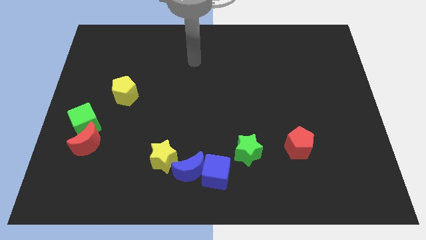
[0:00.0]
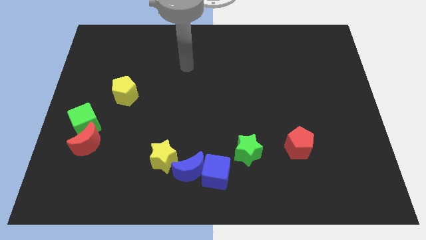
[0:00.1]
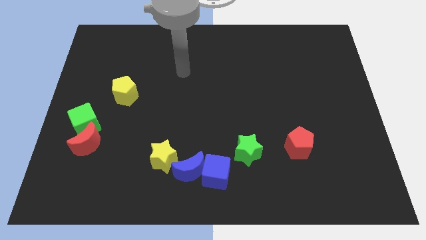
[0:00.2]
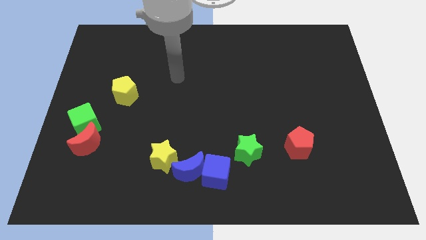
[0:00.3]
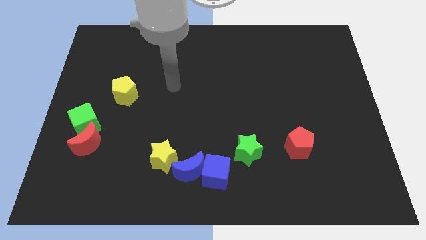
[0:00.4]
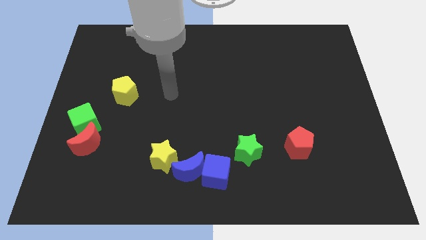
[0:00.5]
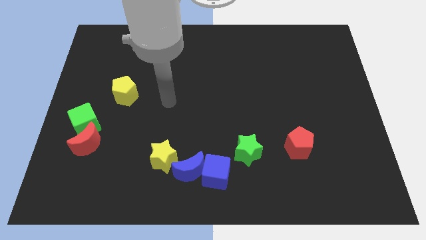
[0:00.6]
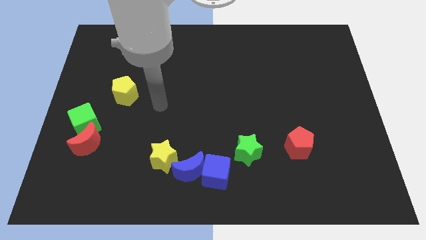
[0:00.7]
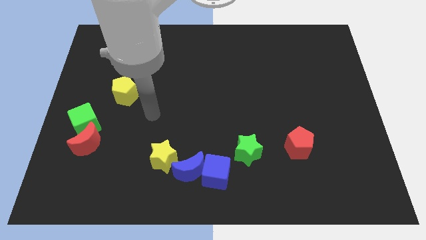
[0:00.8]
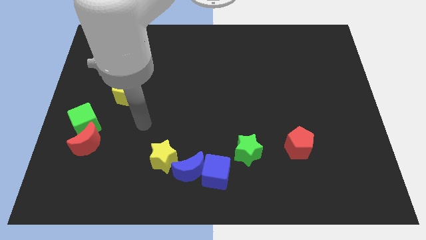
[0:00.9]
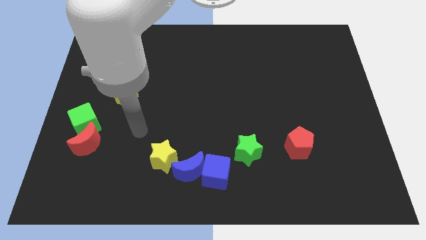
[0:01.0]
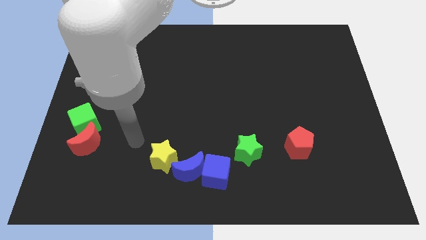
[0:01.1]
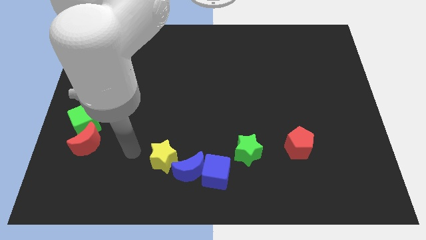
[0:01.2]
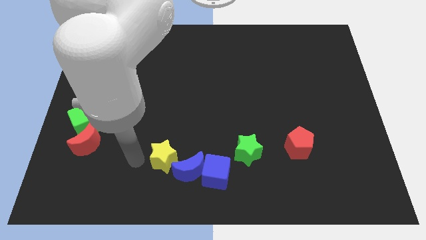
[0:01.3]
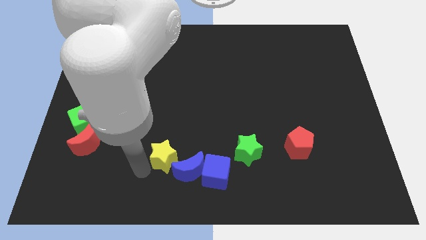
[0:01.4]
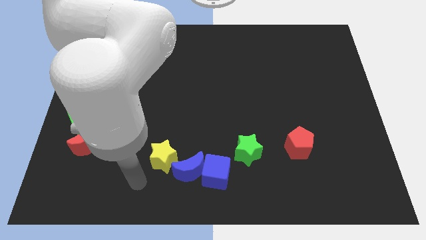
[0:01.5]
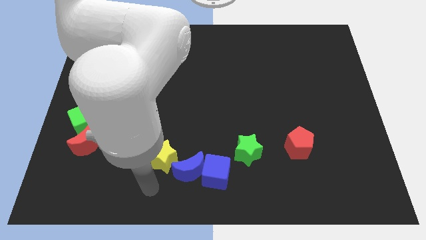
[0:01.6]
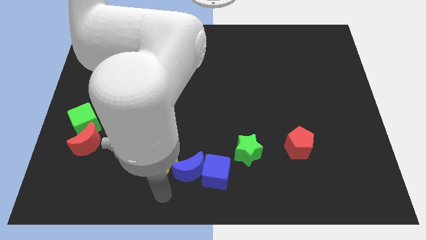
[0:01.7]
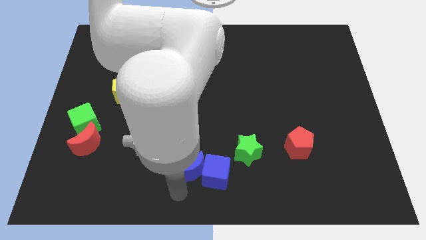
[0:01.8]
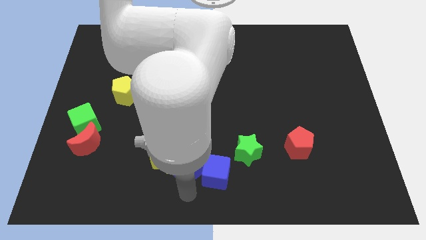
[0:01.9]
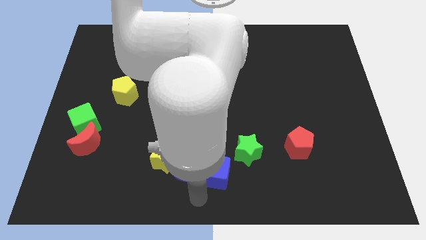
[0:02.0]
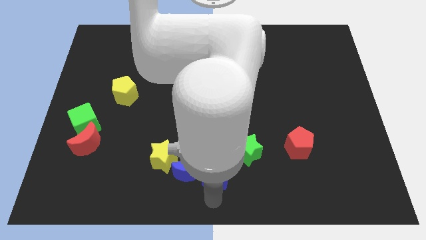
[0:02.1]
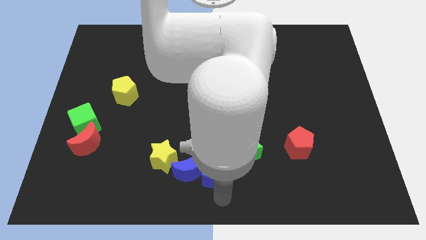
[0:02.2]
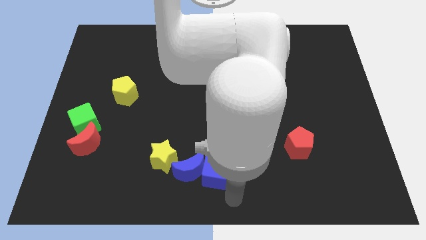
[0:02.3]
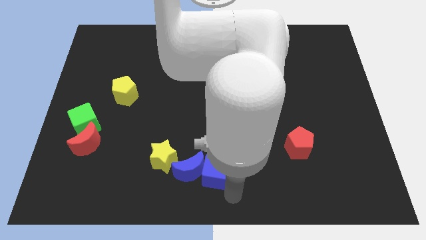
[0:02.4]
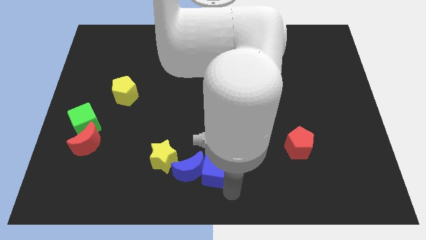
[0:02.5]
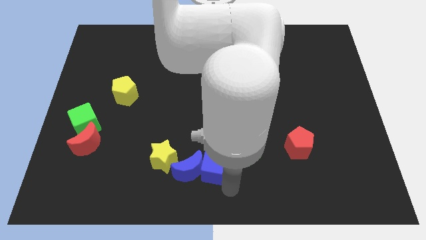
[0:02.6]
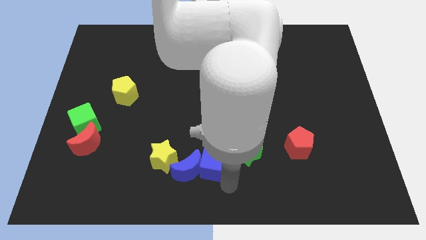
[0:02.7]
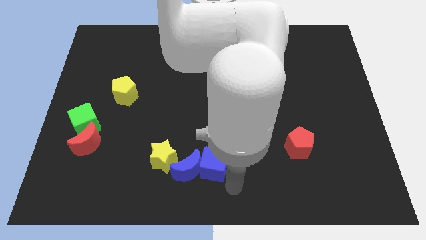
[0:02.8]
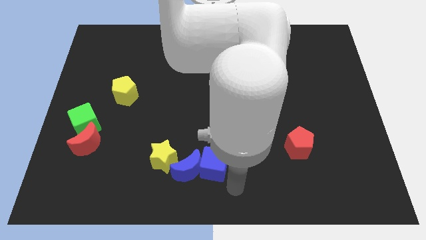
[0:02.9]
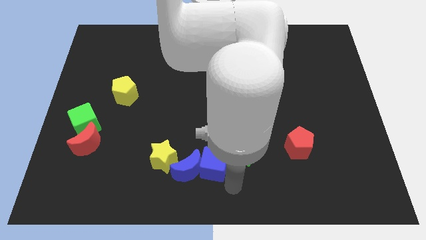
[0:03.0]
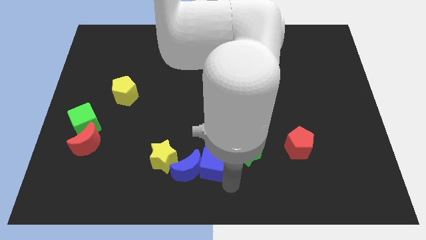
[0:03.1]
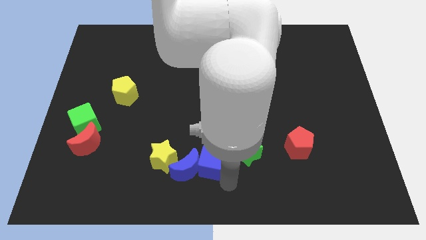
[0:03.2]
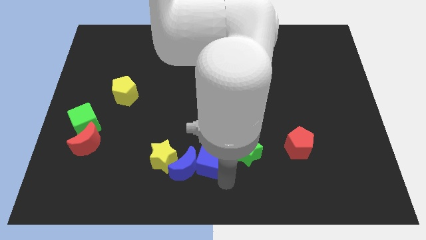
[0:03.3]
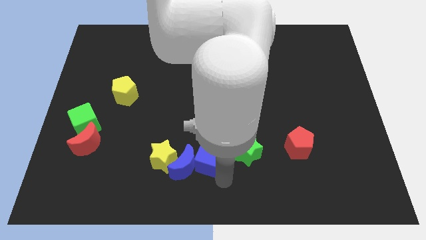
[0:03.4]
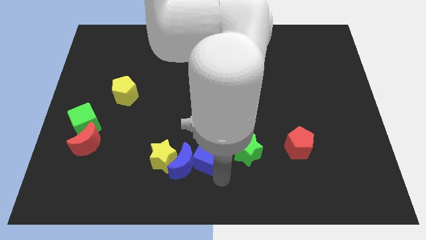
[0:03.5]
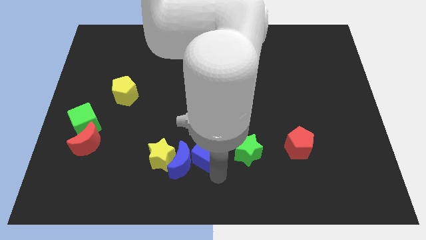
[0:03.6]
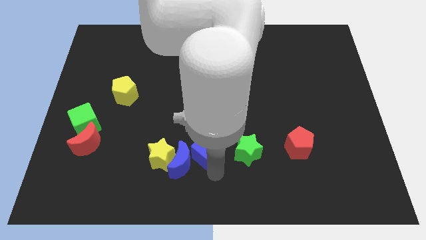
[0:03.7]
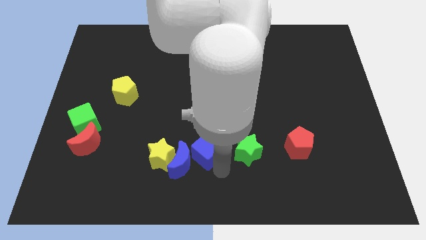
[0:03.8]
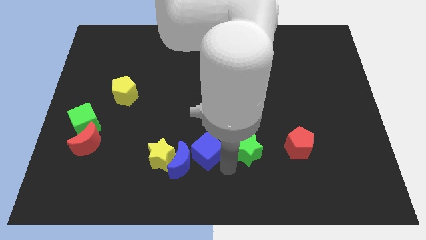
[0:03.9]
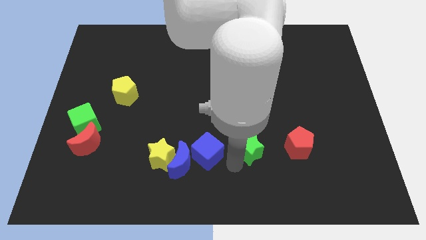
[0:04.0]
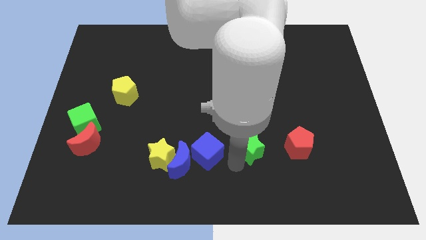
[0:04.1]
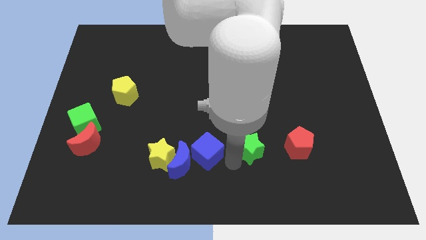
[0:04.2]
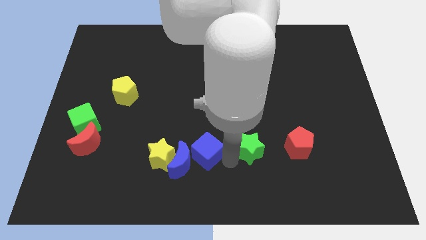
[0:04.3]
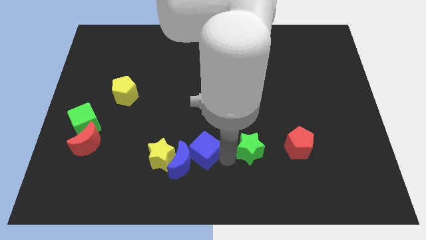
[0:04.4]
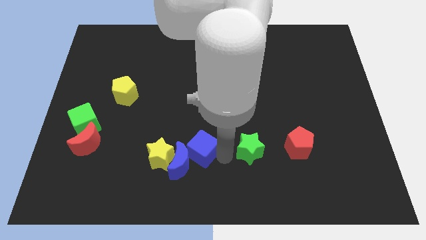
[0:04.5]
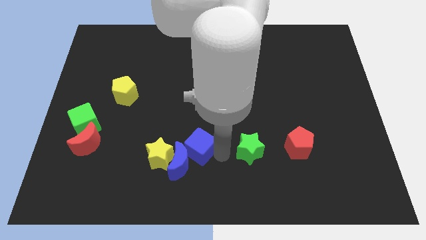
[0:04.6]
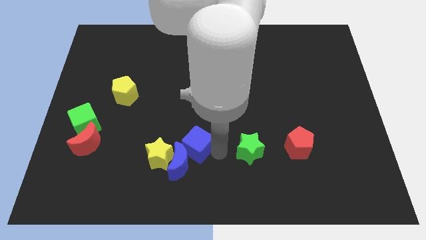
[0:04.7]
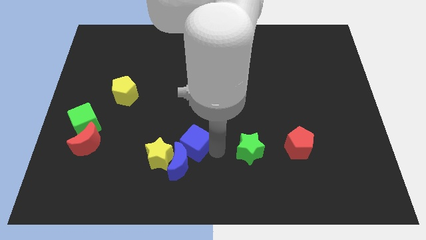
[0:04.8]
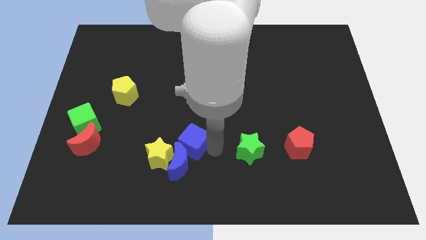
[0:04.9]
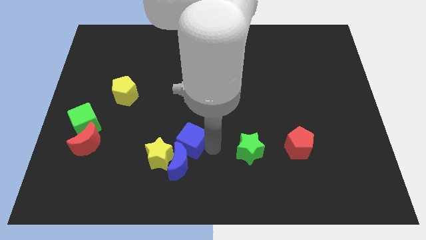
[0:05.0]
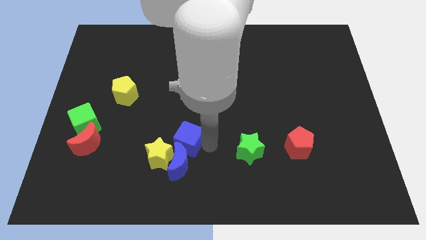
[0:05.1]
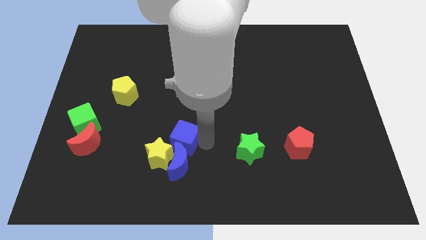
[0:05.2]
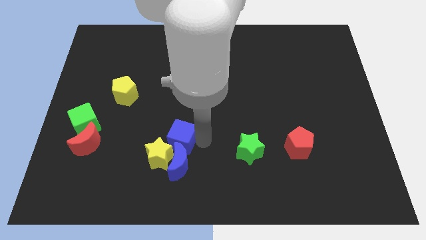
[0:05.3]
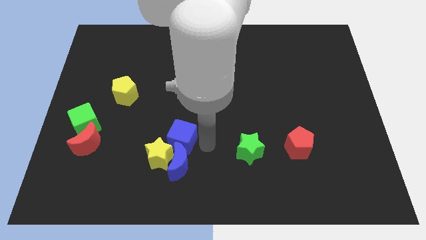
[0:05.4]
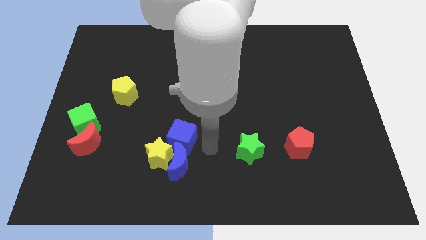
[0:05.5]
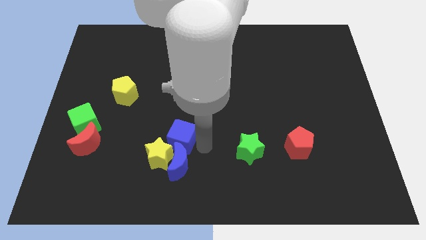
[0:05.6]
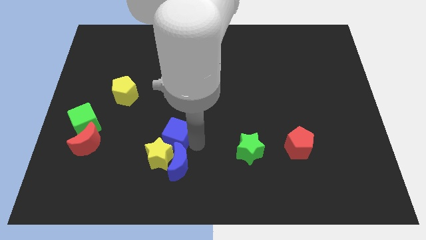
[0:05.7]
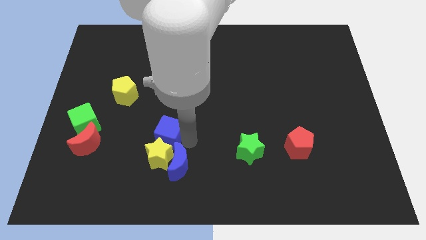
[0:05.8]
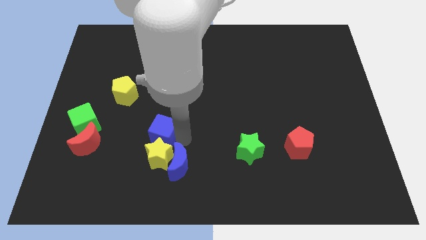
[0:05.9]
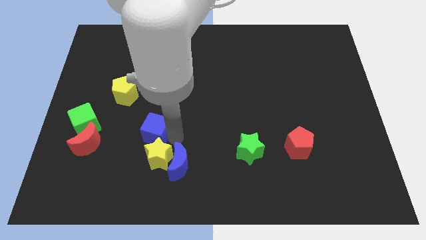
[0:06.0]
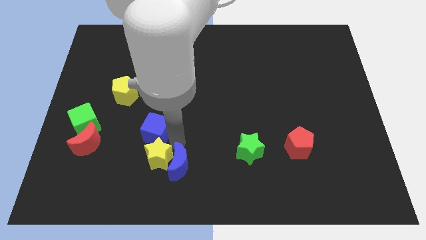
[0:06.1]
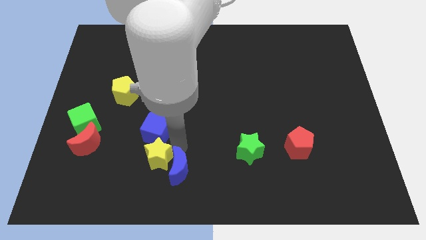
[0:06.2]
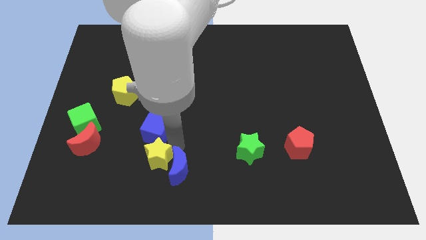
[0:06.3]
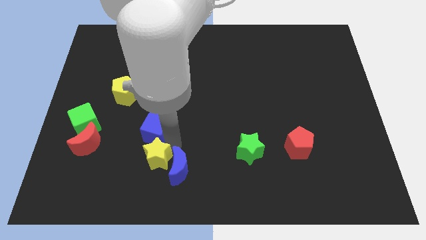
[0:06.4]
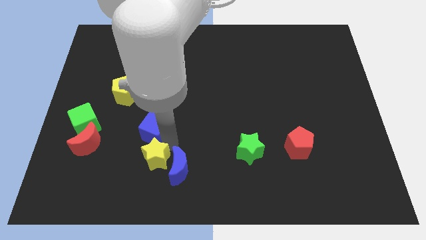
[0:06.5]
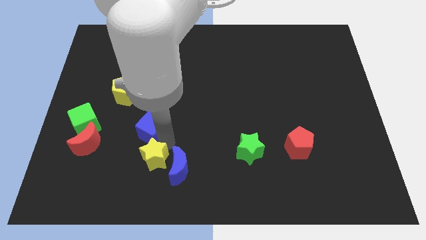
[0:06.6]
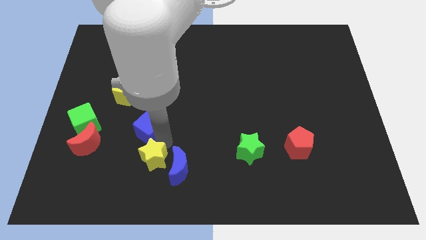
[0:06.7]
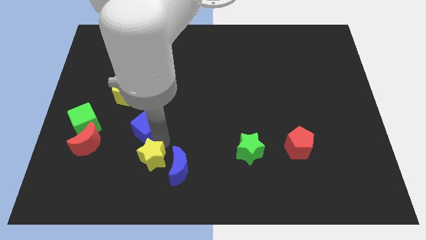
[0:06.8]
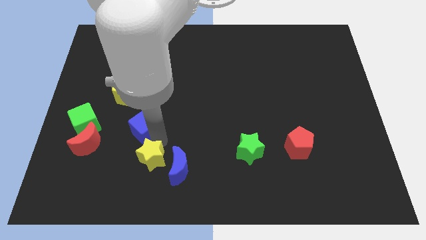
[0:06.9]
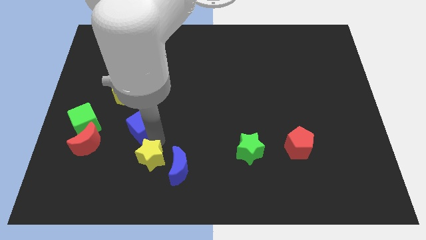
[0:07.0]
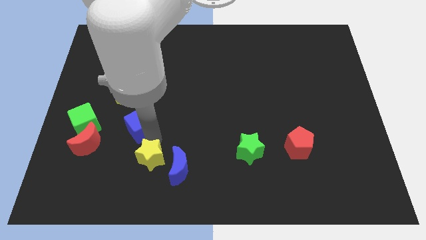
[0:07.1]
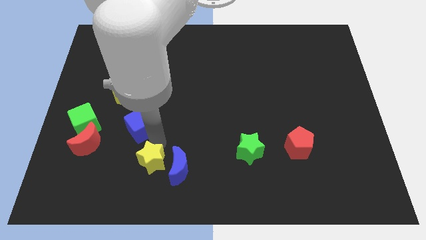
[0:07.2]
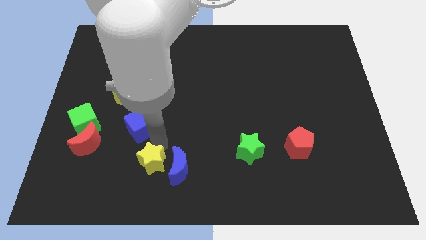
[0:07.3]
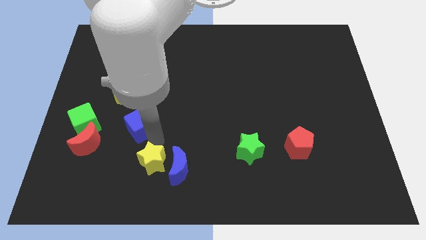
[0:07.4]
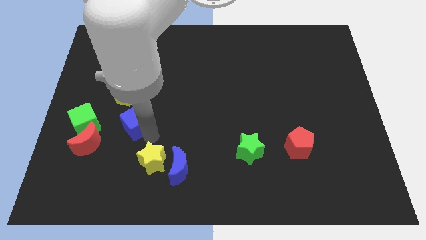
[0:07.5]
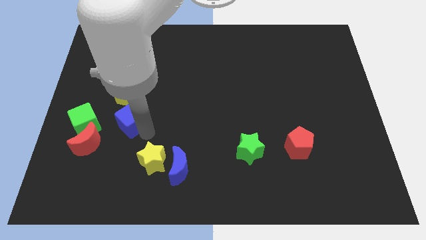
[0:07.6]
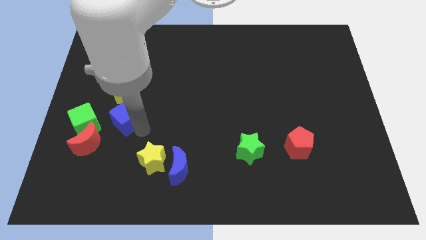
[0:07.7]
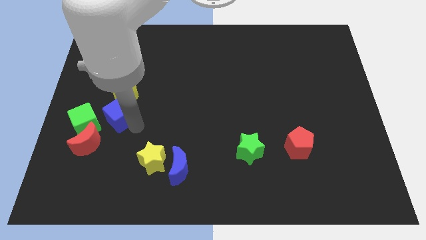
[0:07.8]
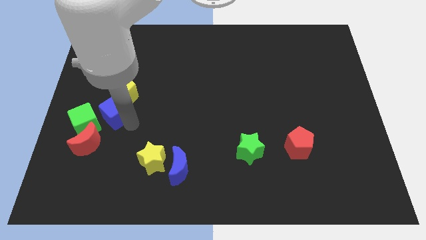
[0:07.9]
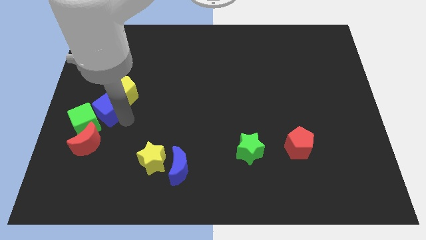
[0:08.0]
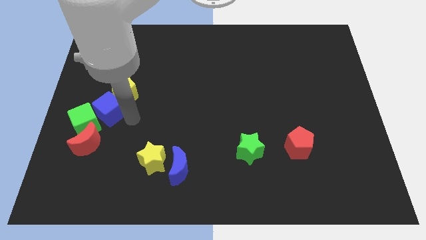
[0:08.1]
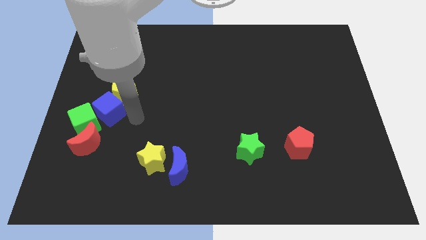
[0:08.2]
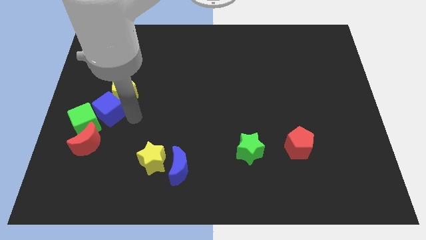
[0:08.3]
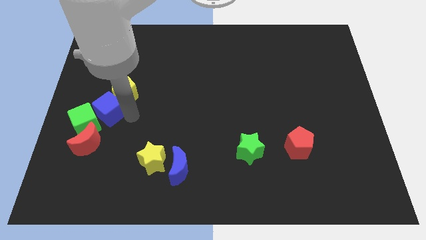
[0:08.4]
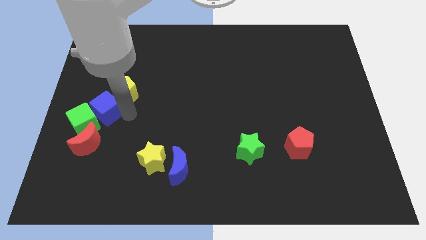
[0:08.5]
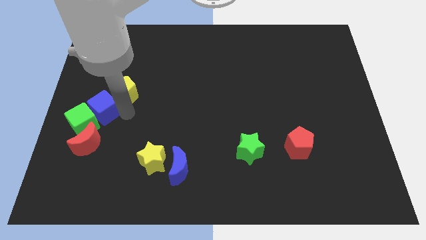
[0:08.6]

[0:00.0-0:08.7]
put the blue cube to the center left
